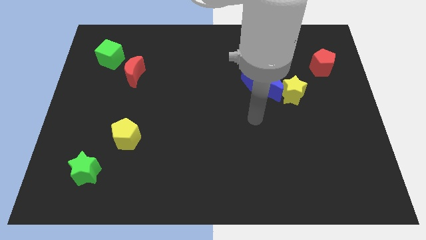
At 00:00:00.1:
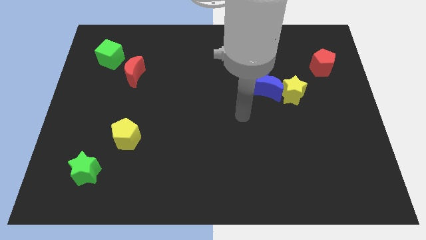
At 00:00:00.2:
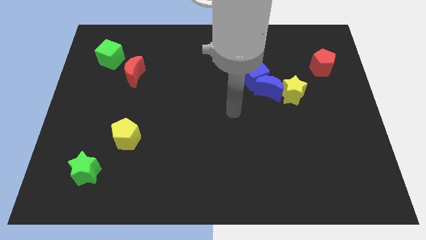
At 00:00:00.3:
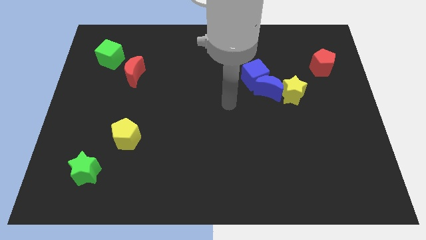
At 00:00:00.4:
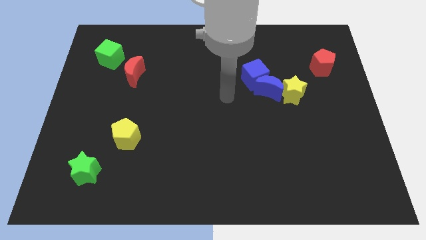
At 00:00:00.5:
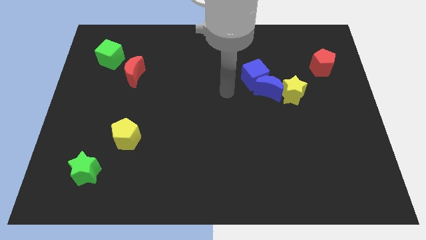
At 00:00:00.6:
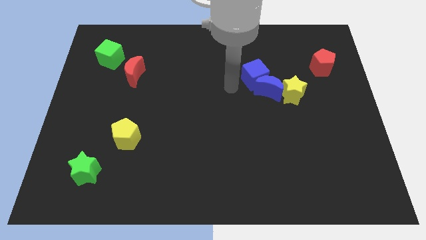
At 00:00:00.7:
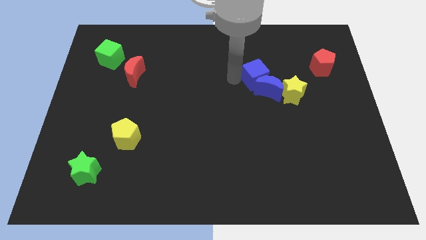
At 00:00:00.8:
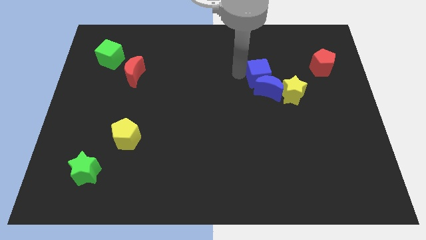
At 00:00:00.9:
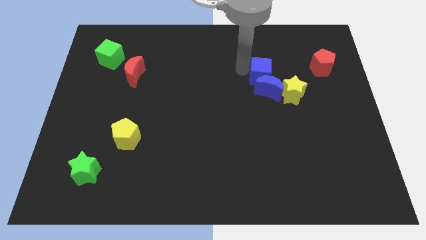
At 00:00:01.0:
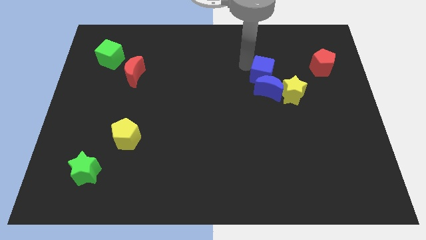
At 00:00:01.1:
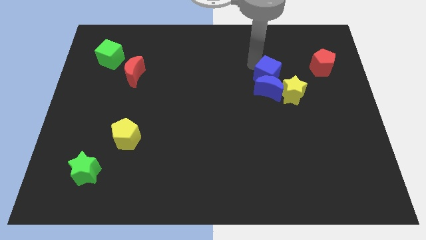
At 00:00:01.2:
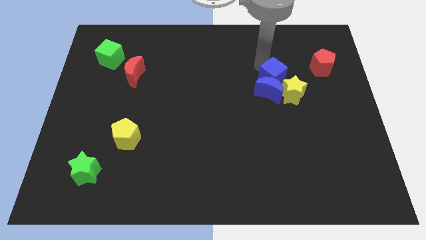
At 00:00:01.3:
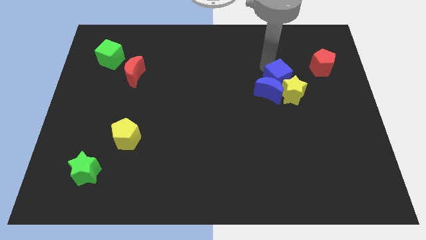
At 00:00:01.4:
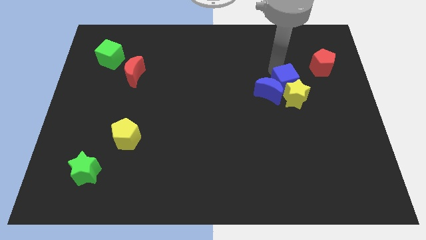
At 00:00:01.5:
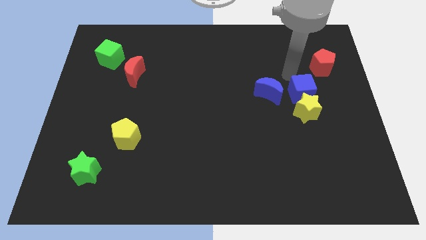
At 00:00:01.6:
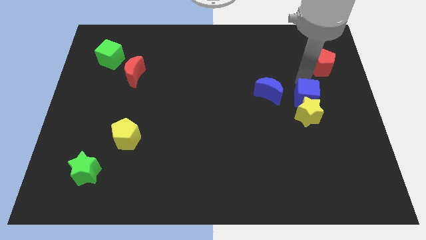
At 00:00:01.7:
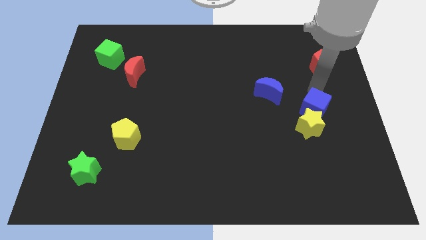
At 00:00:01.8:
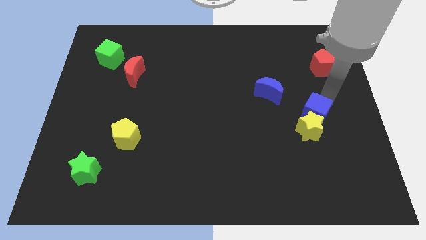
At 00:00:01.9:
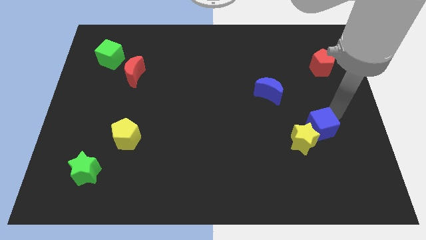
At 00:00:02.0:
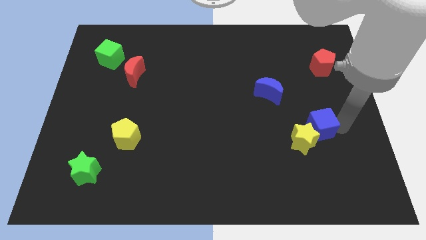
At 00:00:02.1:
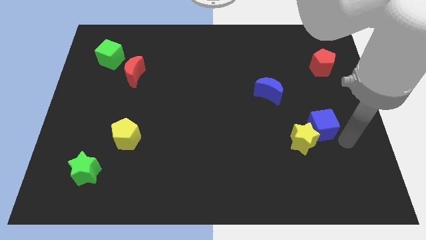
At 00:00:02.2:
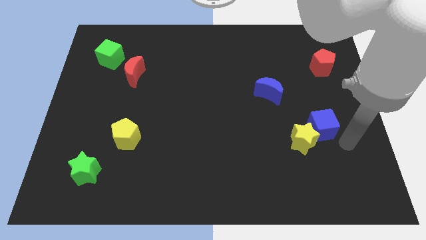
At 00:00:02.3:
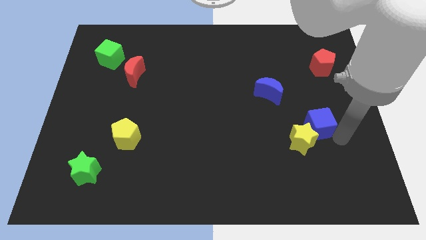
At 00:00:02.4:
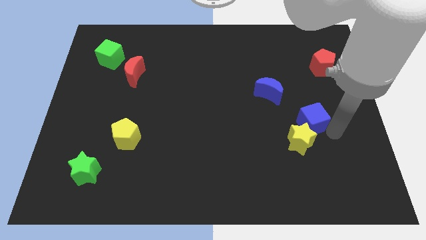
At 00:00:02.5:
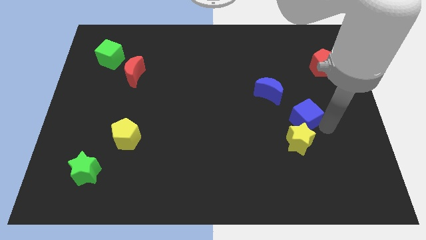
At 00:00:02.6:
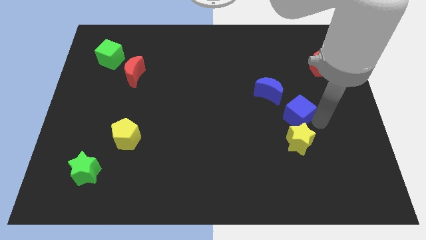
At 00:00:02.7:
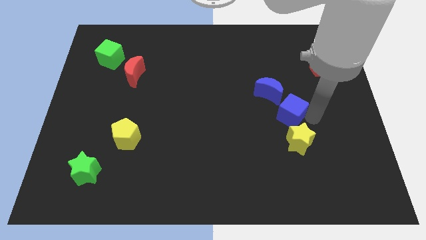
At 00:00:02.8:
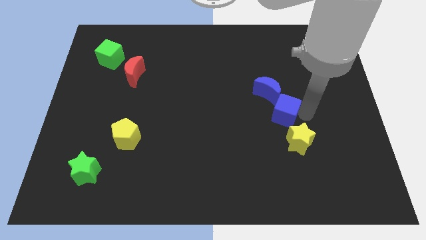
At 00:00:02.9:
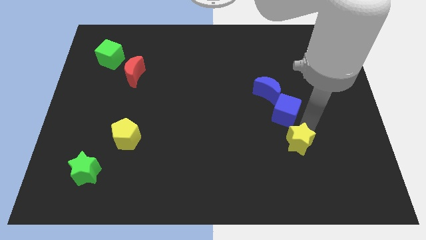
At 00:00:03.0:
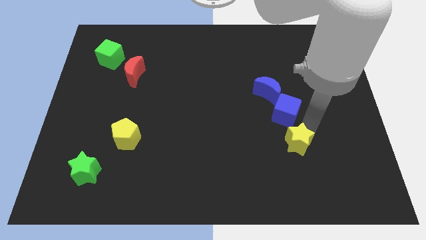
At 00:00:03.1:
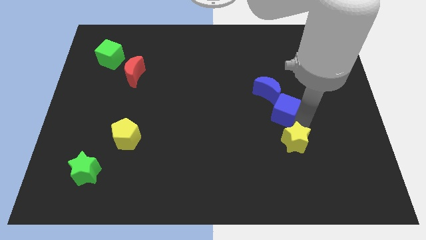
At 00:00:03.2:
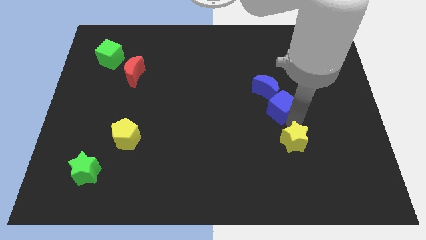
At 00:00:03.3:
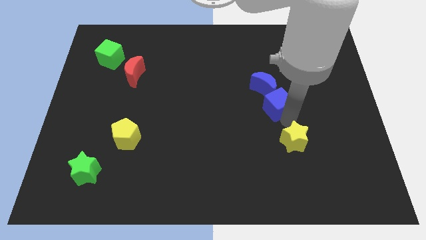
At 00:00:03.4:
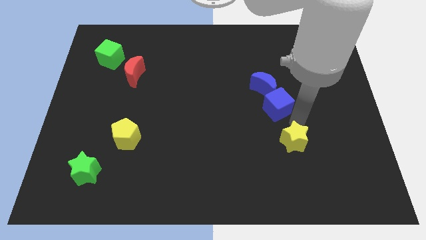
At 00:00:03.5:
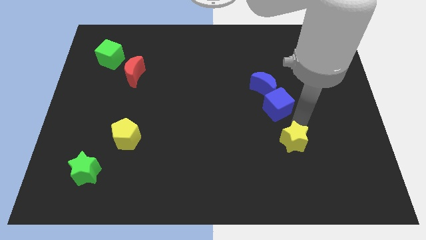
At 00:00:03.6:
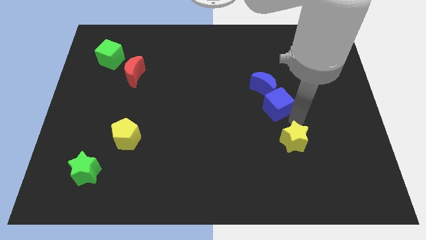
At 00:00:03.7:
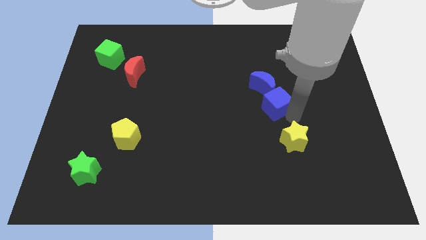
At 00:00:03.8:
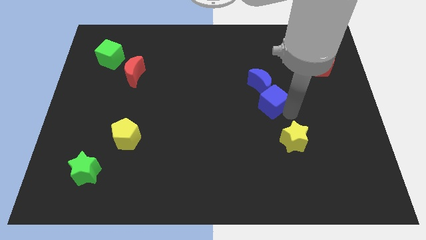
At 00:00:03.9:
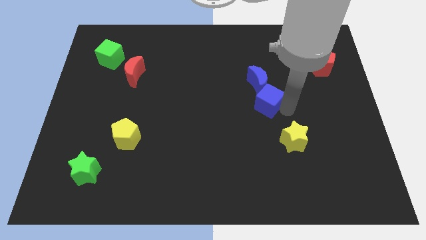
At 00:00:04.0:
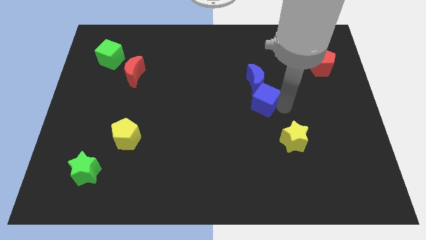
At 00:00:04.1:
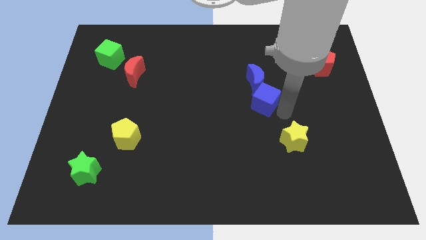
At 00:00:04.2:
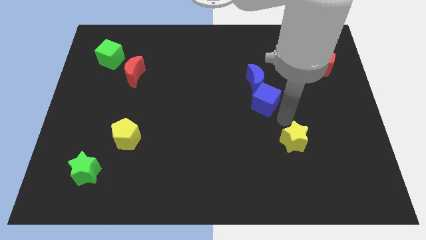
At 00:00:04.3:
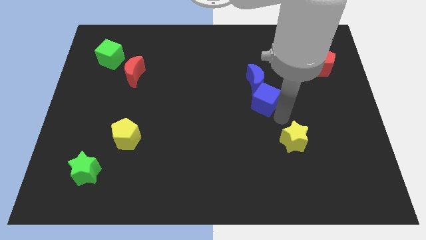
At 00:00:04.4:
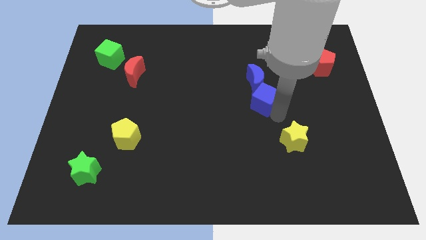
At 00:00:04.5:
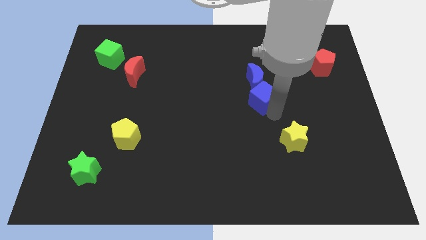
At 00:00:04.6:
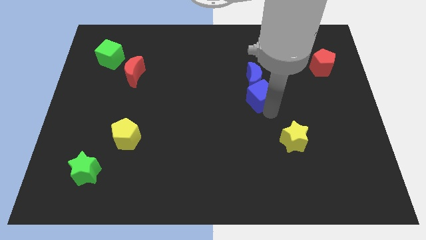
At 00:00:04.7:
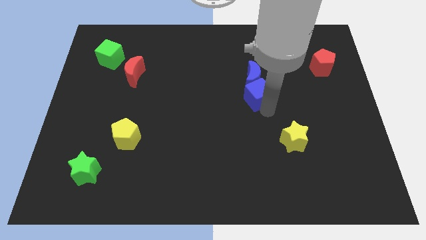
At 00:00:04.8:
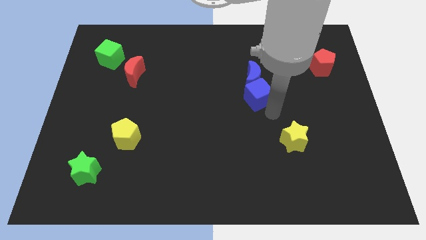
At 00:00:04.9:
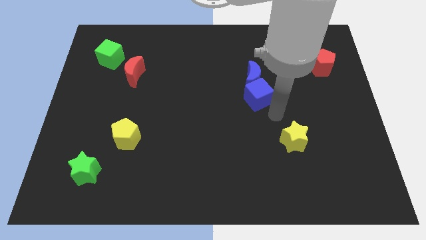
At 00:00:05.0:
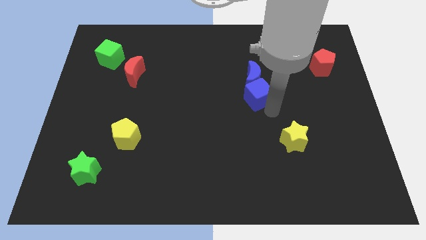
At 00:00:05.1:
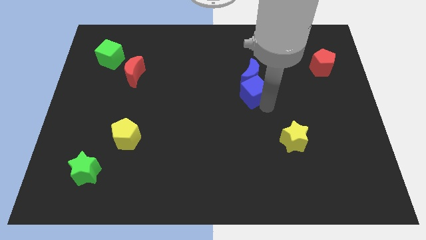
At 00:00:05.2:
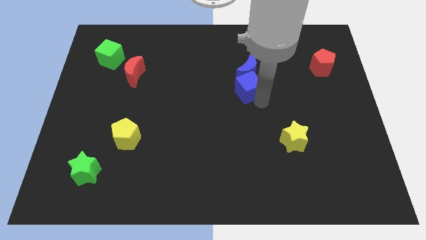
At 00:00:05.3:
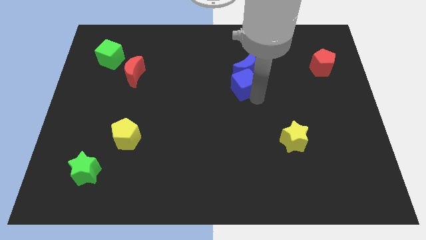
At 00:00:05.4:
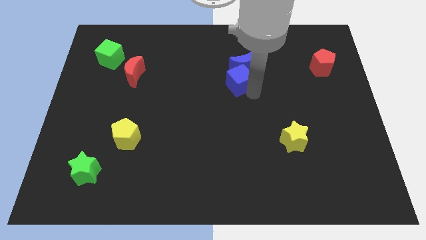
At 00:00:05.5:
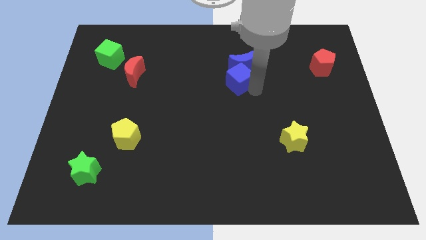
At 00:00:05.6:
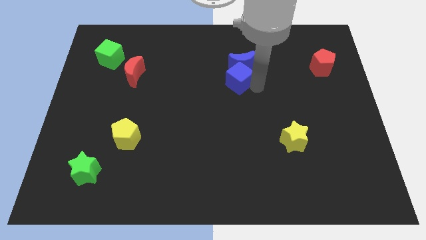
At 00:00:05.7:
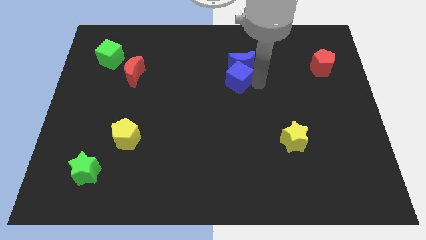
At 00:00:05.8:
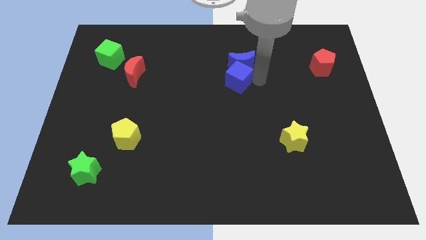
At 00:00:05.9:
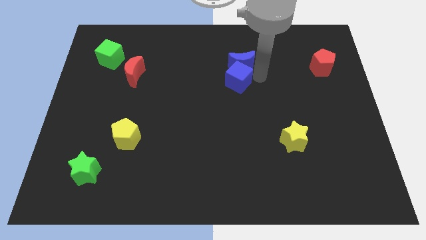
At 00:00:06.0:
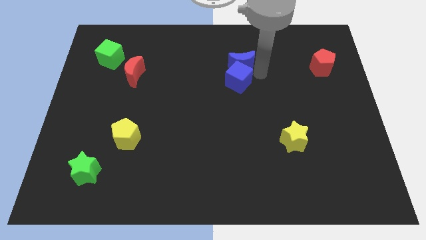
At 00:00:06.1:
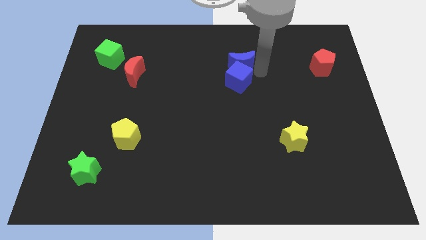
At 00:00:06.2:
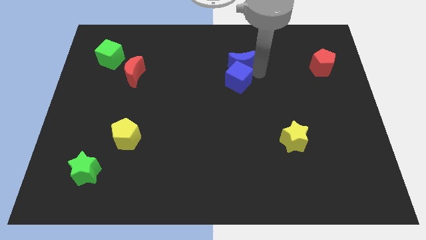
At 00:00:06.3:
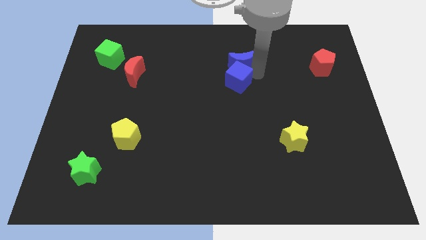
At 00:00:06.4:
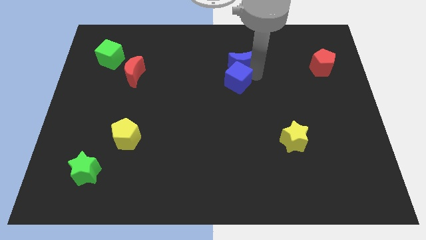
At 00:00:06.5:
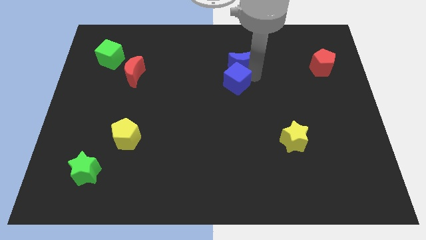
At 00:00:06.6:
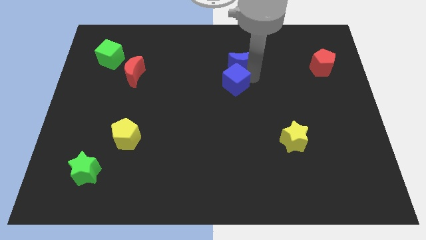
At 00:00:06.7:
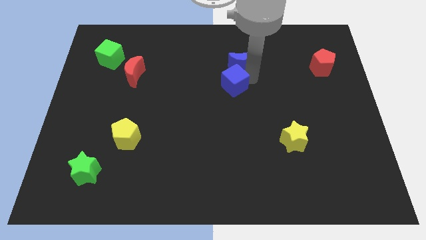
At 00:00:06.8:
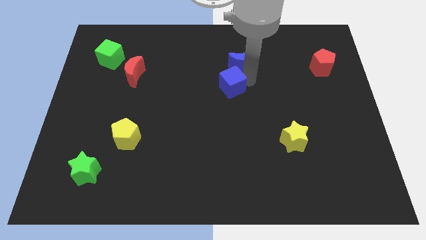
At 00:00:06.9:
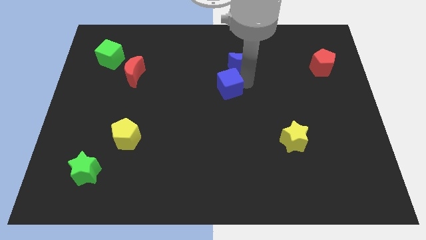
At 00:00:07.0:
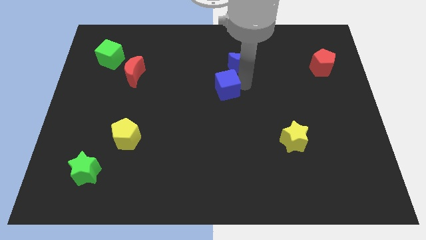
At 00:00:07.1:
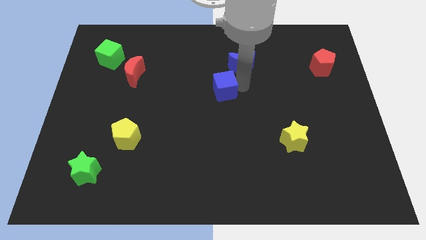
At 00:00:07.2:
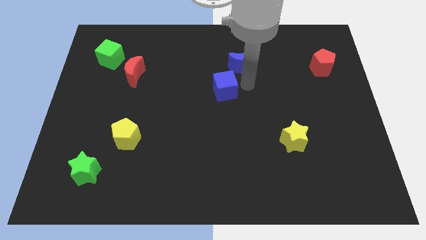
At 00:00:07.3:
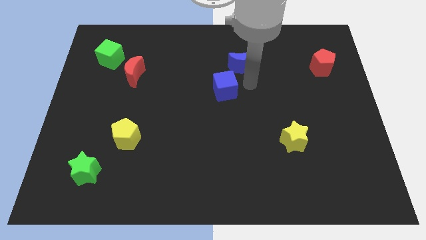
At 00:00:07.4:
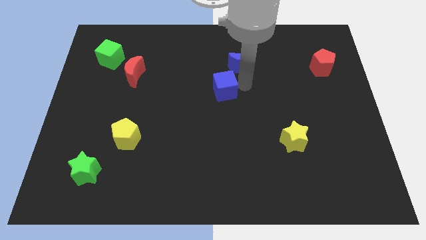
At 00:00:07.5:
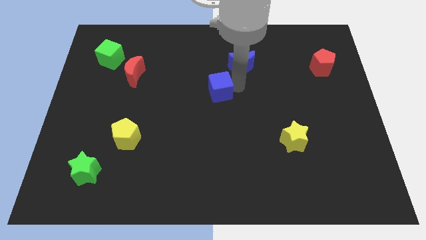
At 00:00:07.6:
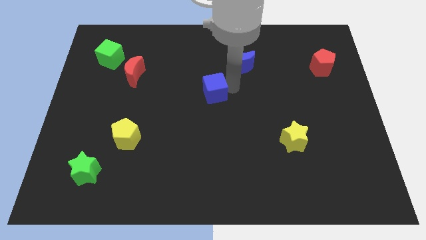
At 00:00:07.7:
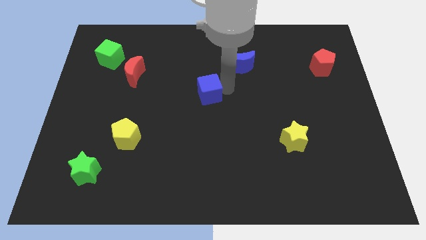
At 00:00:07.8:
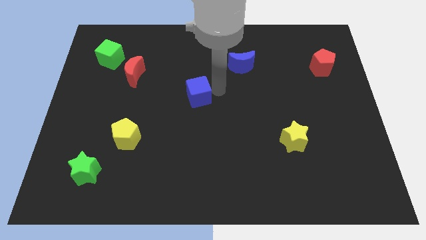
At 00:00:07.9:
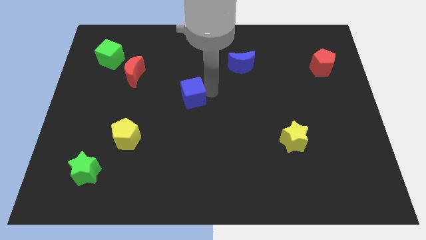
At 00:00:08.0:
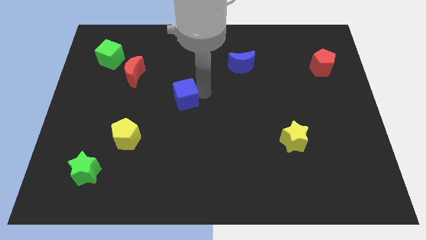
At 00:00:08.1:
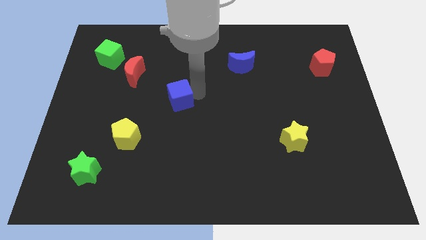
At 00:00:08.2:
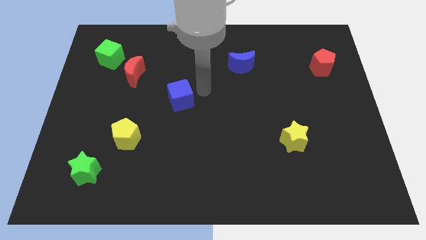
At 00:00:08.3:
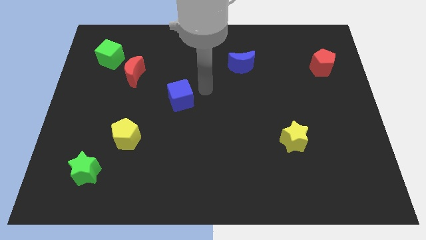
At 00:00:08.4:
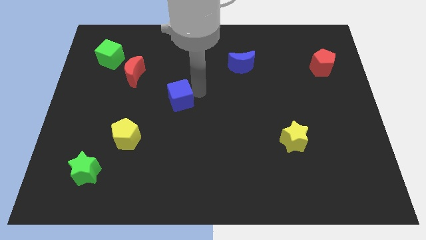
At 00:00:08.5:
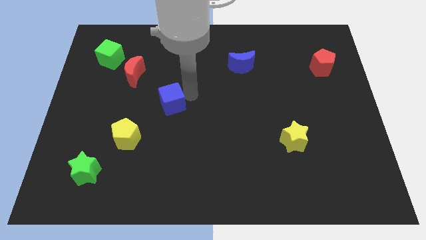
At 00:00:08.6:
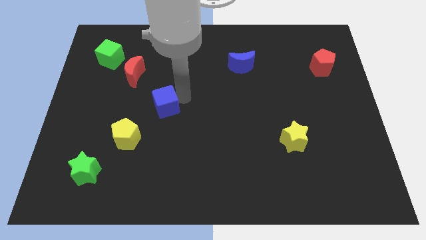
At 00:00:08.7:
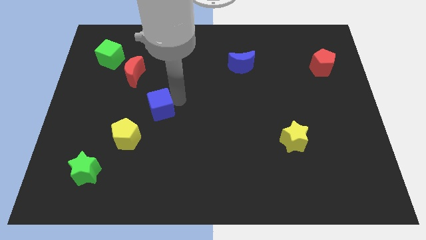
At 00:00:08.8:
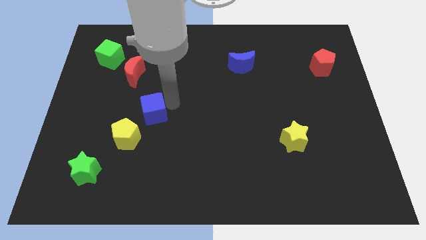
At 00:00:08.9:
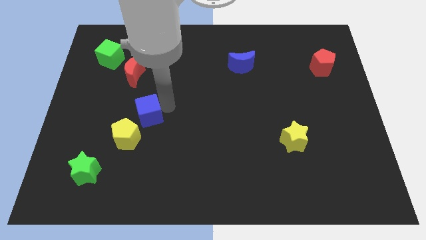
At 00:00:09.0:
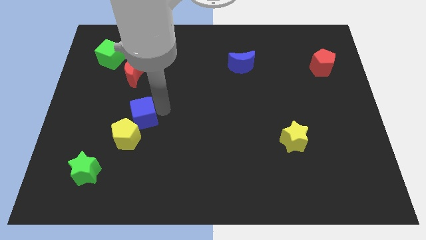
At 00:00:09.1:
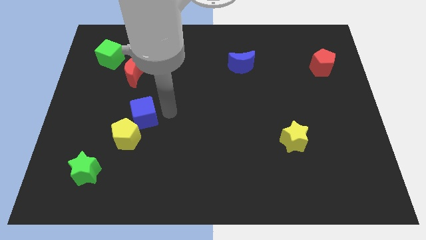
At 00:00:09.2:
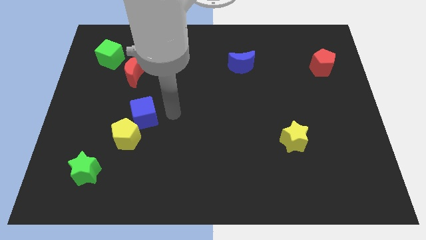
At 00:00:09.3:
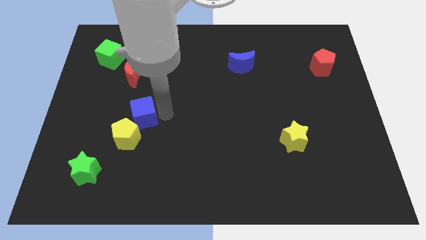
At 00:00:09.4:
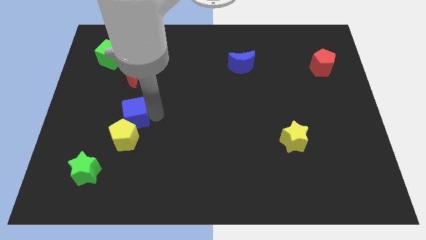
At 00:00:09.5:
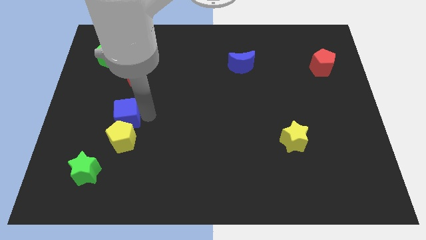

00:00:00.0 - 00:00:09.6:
slide the blue cube diagonally up and to the left of the yellow pentagon
